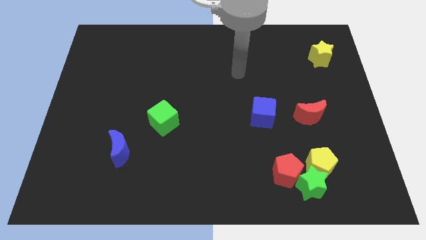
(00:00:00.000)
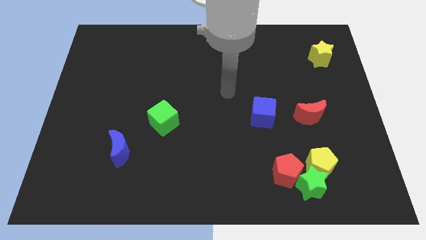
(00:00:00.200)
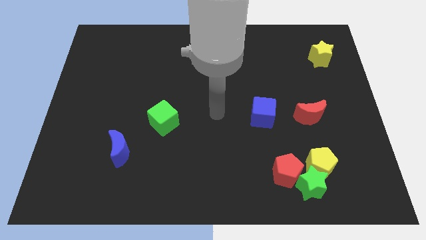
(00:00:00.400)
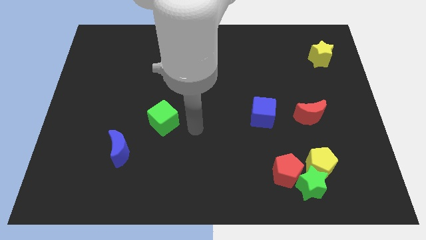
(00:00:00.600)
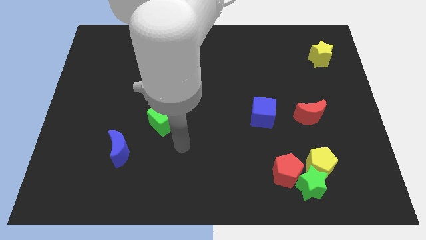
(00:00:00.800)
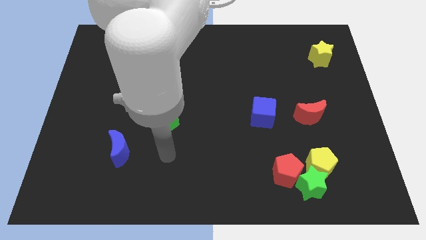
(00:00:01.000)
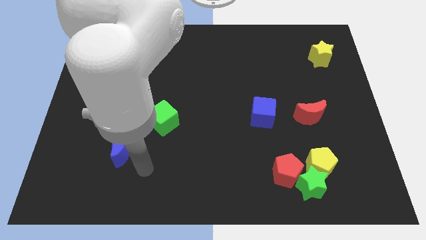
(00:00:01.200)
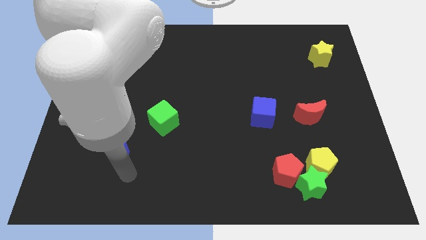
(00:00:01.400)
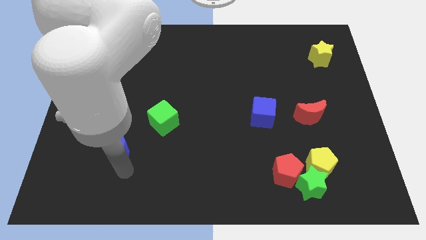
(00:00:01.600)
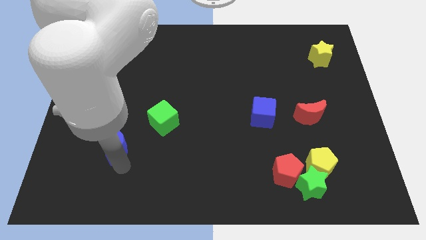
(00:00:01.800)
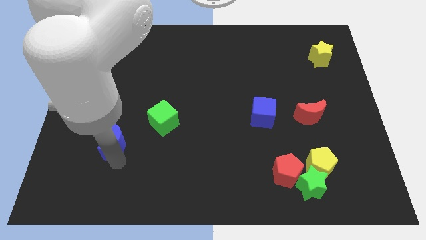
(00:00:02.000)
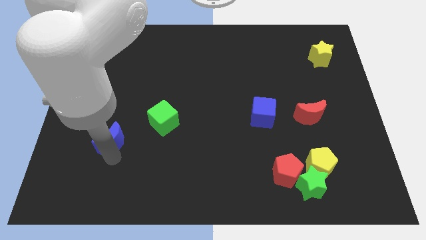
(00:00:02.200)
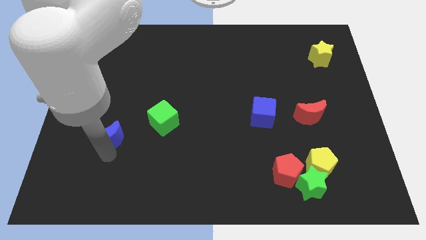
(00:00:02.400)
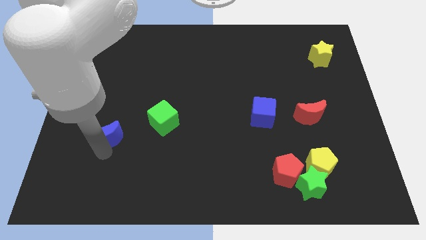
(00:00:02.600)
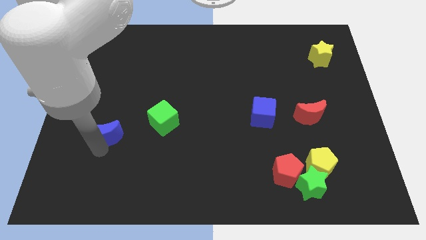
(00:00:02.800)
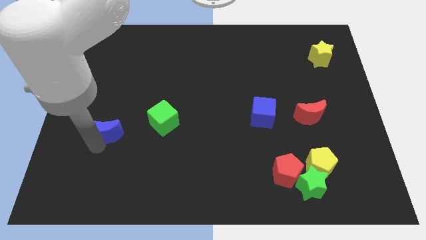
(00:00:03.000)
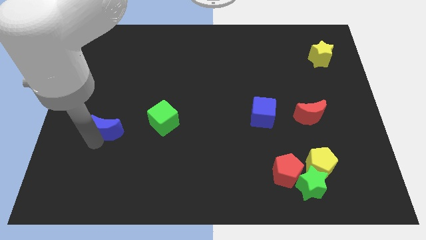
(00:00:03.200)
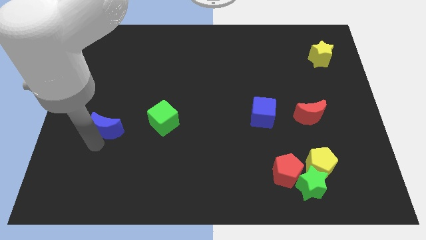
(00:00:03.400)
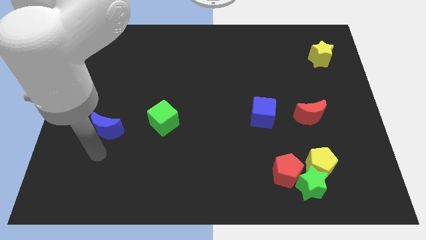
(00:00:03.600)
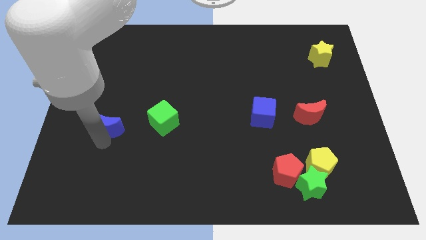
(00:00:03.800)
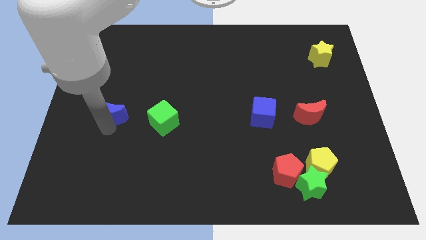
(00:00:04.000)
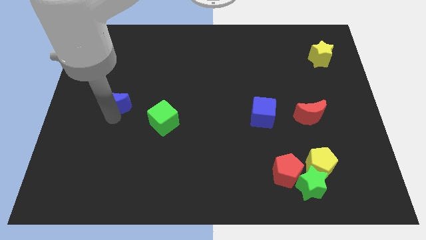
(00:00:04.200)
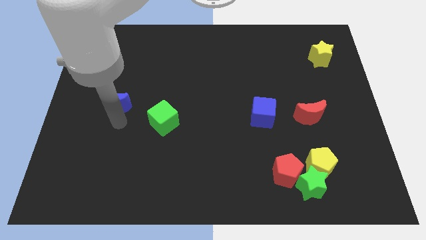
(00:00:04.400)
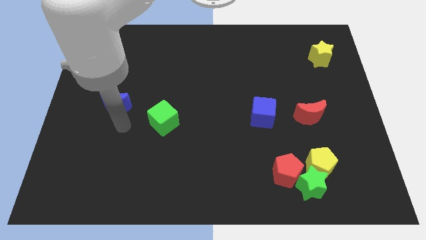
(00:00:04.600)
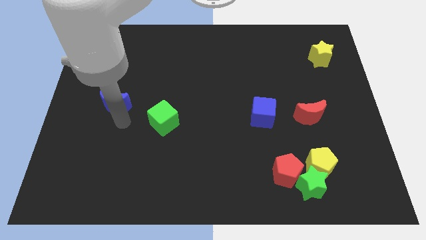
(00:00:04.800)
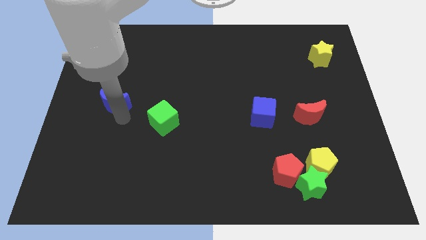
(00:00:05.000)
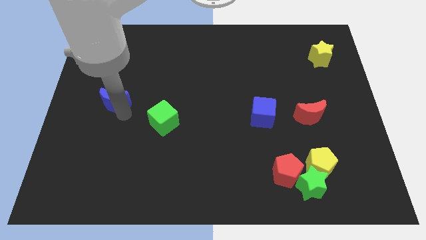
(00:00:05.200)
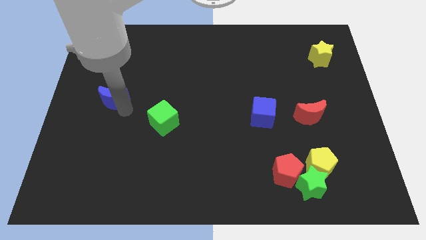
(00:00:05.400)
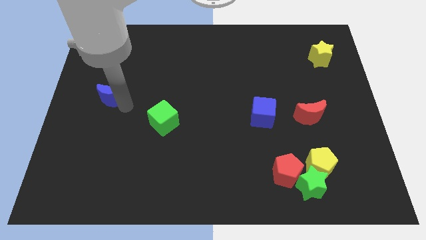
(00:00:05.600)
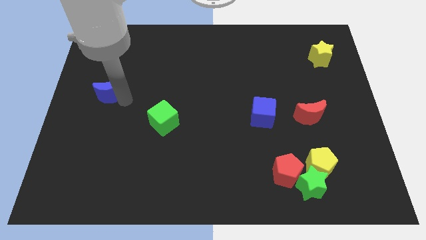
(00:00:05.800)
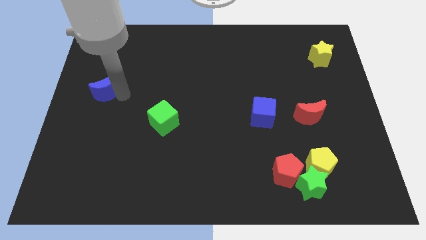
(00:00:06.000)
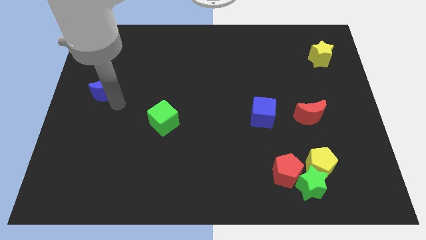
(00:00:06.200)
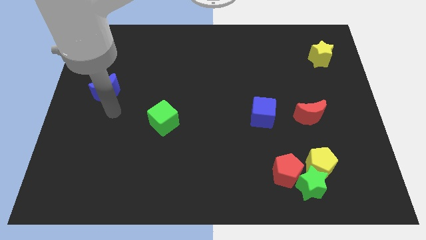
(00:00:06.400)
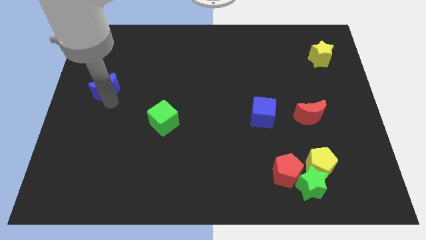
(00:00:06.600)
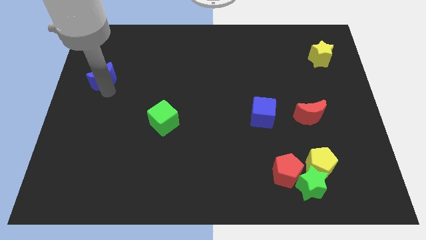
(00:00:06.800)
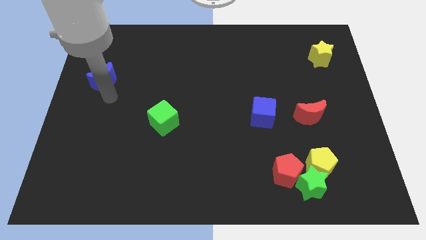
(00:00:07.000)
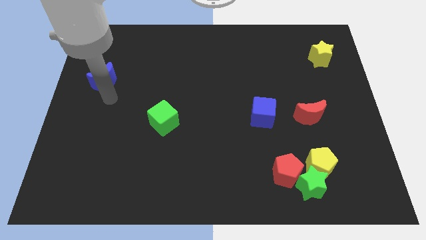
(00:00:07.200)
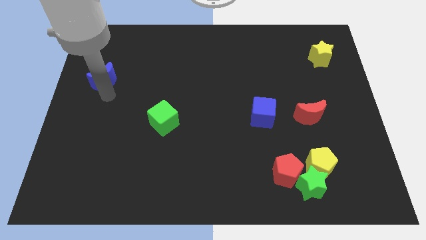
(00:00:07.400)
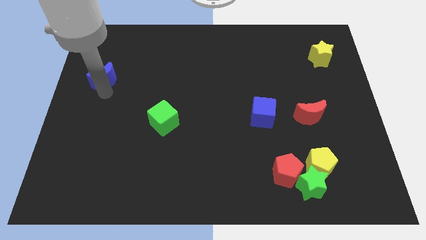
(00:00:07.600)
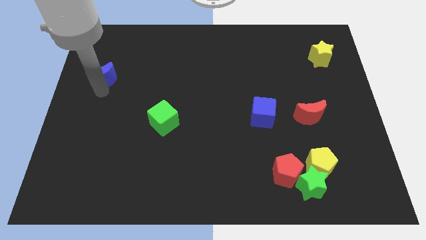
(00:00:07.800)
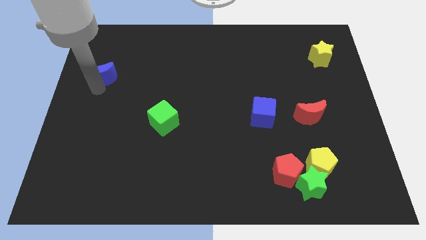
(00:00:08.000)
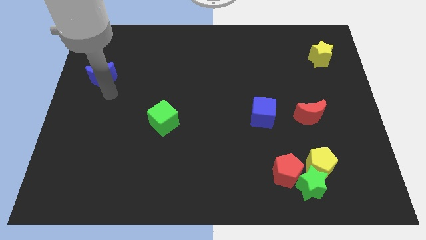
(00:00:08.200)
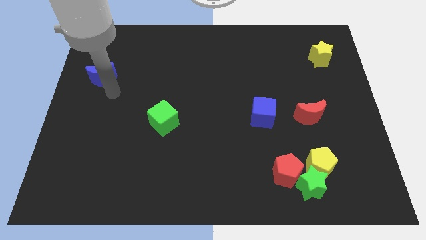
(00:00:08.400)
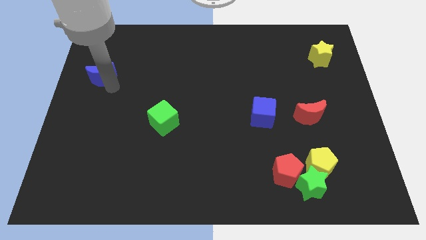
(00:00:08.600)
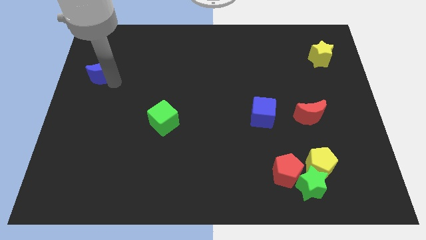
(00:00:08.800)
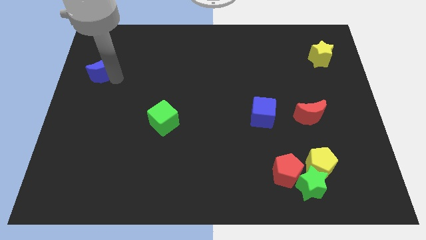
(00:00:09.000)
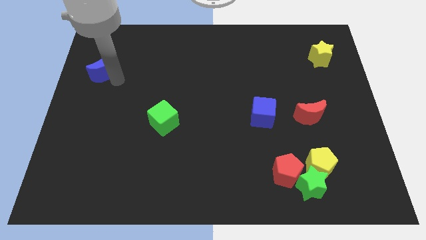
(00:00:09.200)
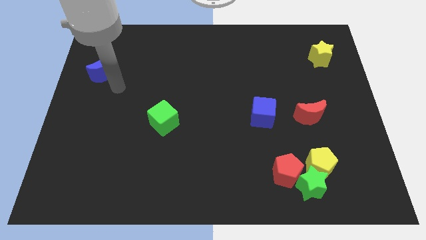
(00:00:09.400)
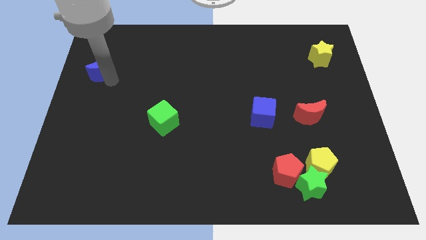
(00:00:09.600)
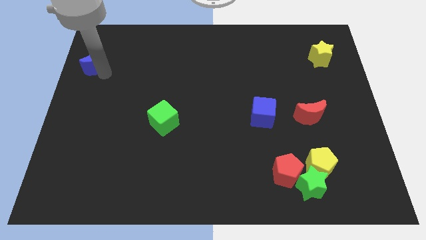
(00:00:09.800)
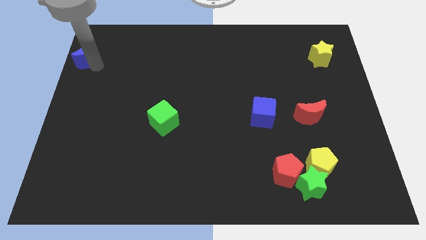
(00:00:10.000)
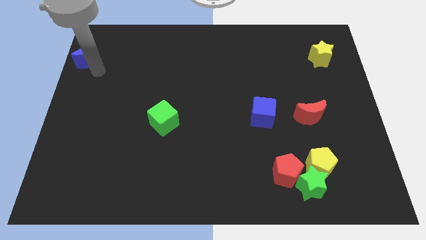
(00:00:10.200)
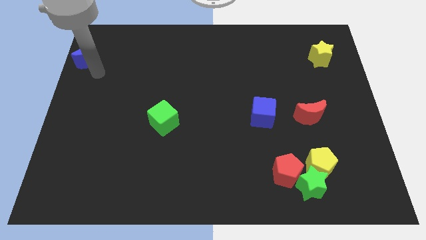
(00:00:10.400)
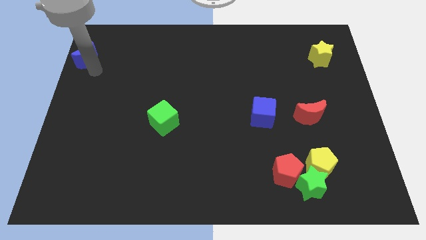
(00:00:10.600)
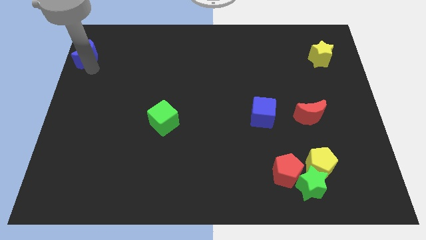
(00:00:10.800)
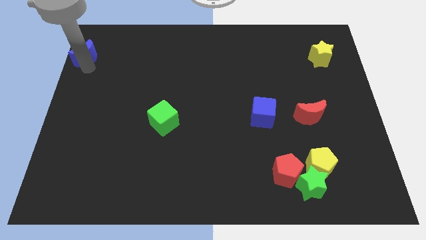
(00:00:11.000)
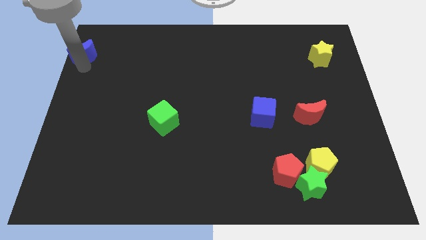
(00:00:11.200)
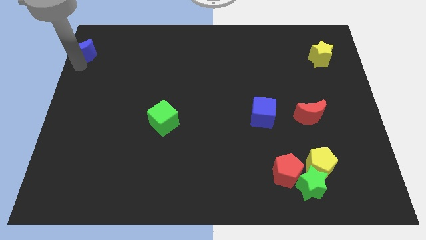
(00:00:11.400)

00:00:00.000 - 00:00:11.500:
put the blue moon to the upper left corner
